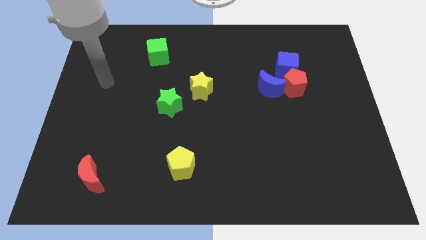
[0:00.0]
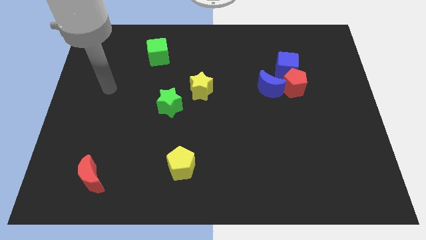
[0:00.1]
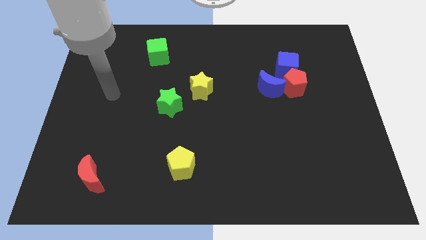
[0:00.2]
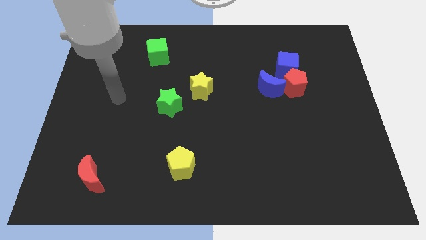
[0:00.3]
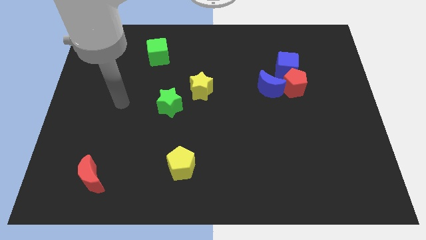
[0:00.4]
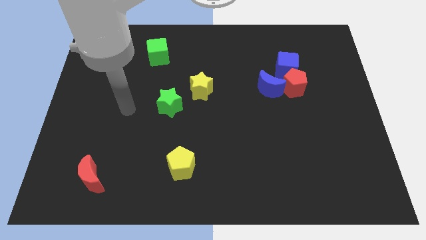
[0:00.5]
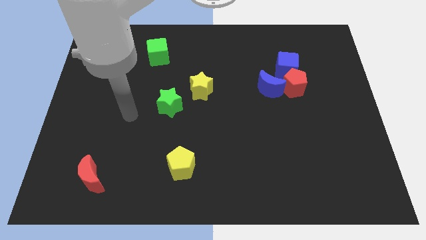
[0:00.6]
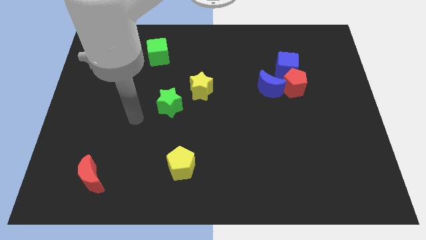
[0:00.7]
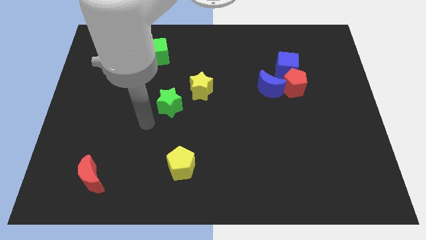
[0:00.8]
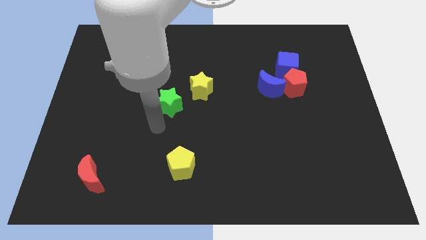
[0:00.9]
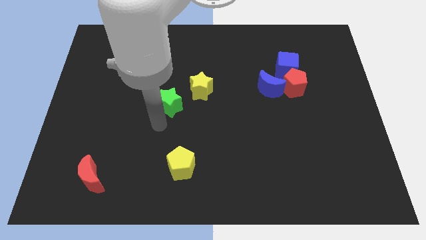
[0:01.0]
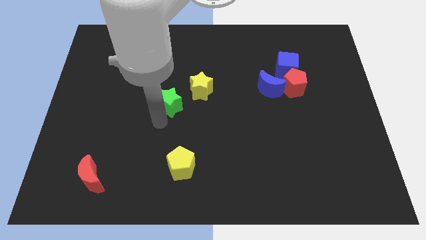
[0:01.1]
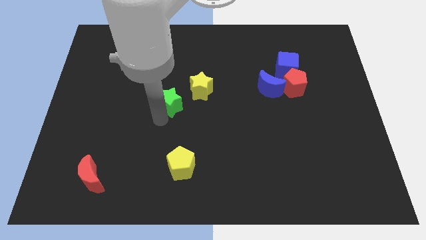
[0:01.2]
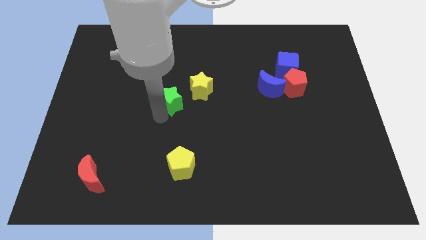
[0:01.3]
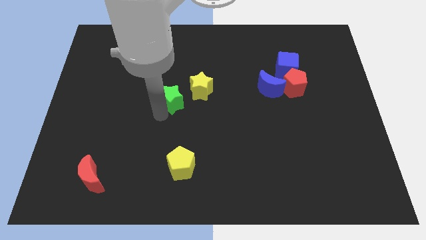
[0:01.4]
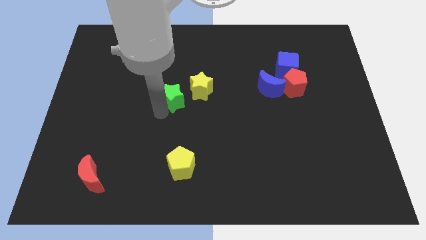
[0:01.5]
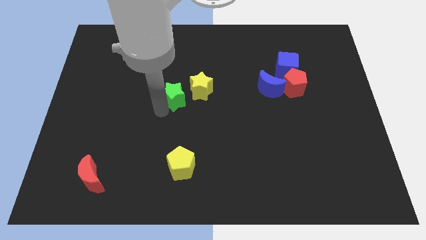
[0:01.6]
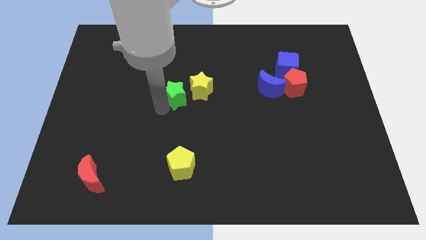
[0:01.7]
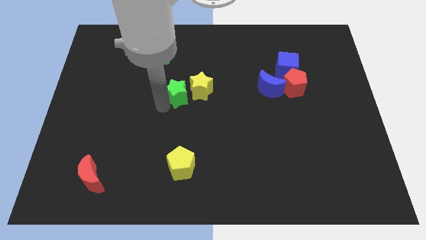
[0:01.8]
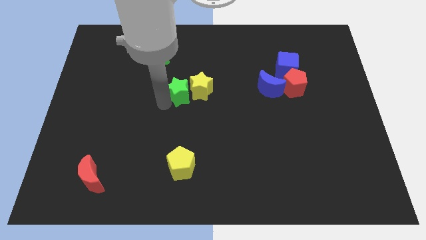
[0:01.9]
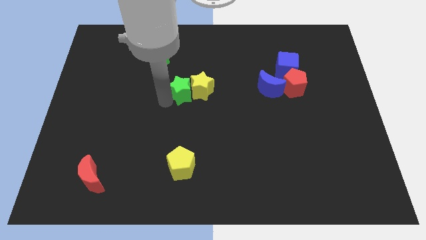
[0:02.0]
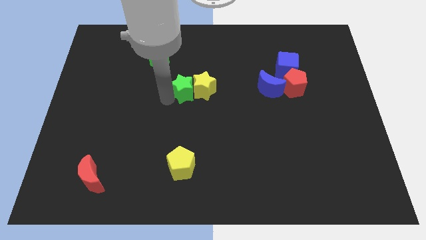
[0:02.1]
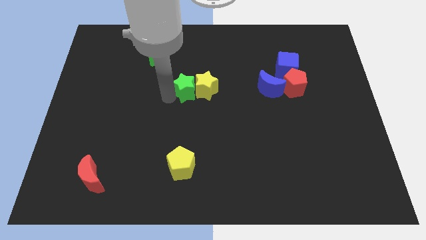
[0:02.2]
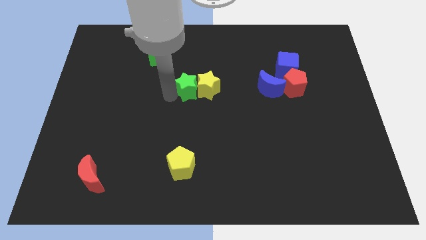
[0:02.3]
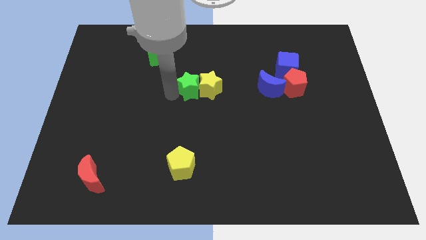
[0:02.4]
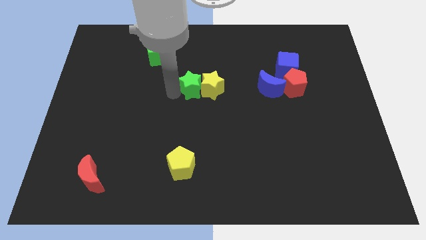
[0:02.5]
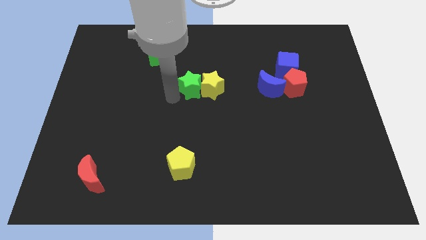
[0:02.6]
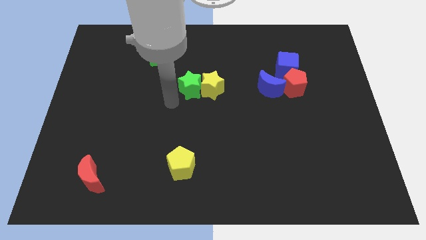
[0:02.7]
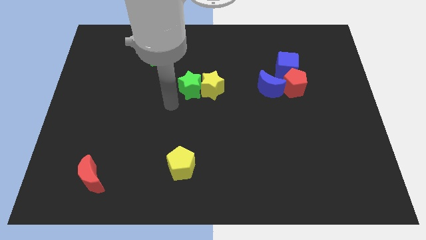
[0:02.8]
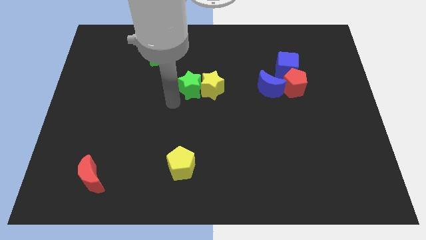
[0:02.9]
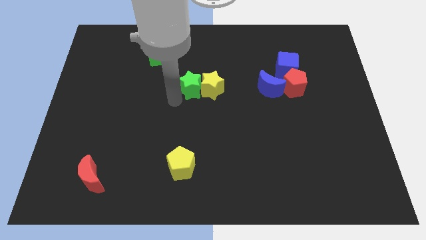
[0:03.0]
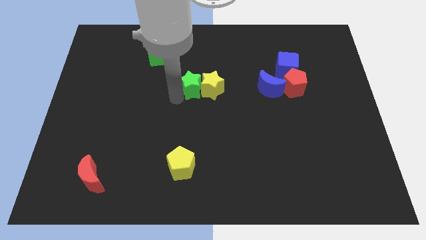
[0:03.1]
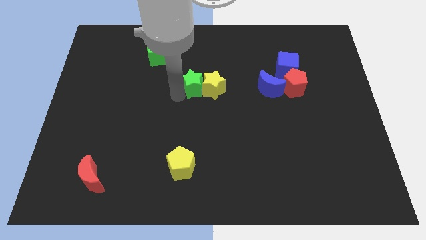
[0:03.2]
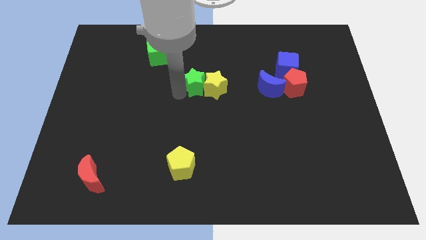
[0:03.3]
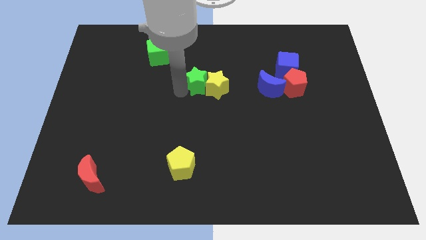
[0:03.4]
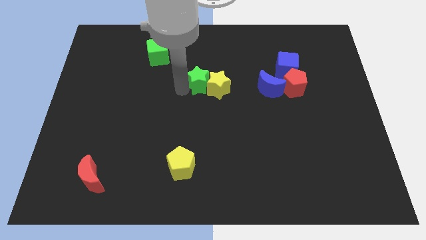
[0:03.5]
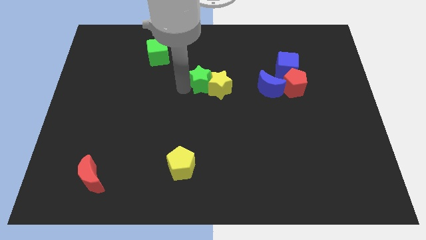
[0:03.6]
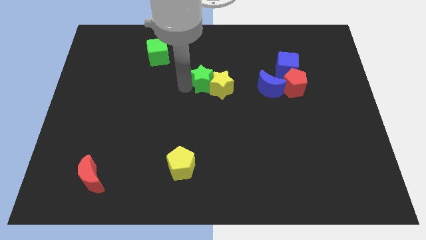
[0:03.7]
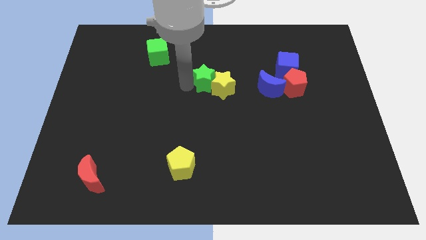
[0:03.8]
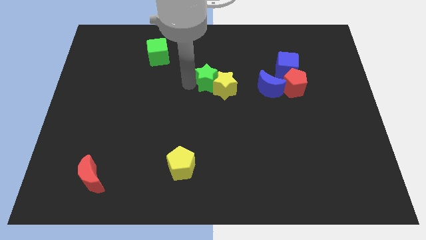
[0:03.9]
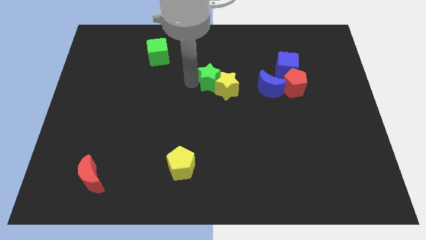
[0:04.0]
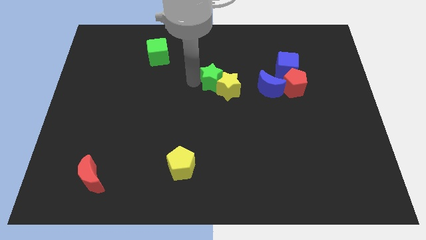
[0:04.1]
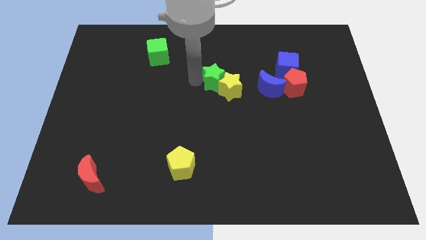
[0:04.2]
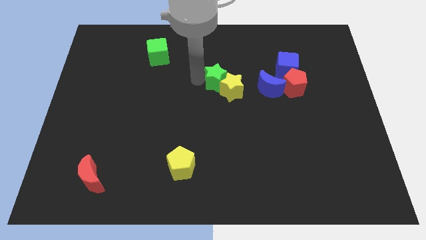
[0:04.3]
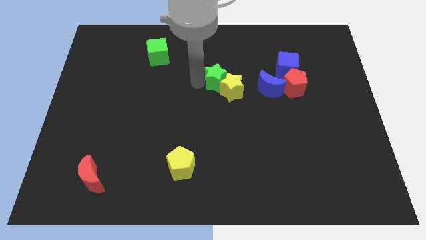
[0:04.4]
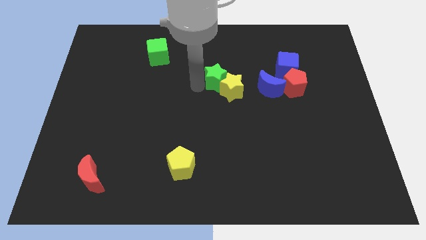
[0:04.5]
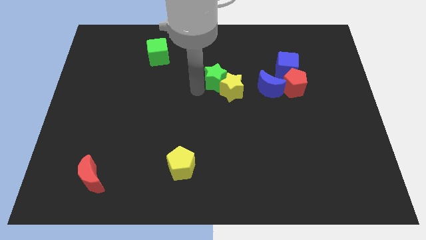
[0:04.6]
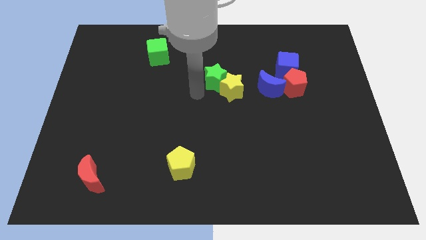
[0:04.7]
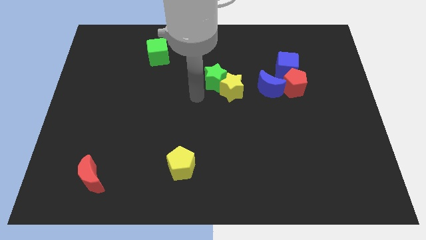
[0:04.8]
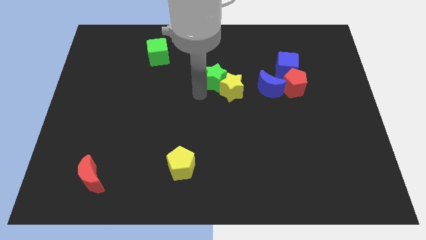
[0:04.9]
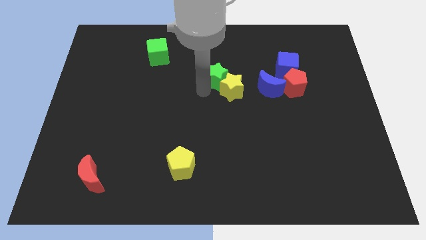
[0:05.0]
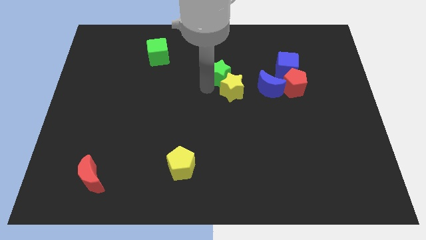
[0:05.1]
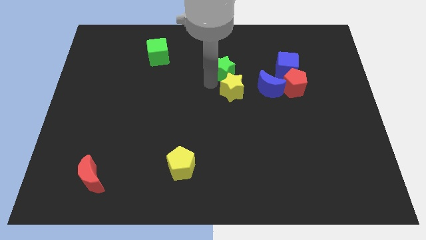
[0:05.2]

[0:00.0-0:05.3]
put the green star just left of the blue cube

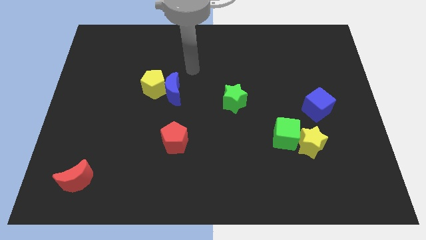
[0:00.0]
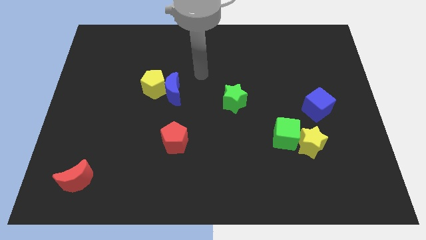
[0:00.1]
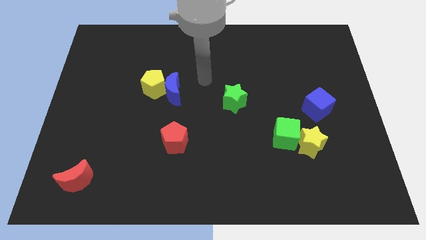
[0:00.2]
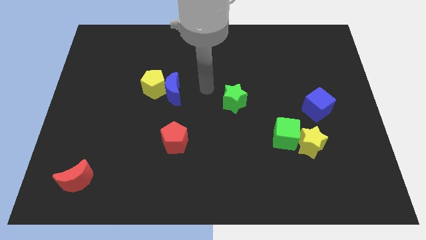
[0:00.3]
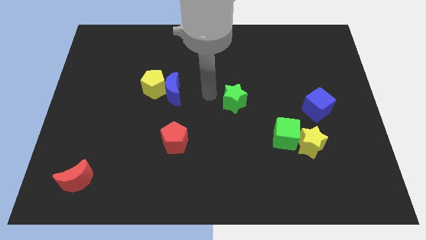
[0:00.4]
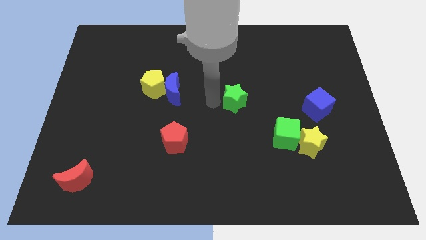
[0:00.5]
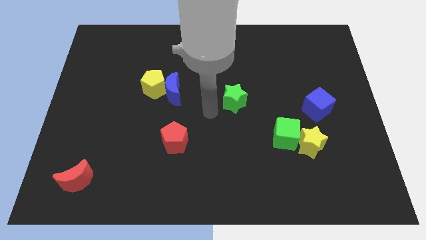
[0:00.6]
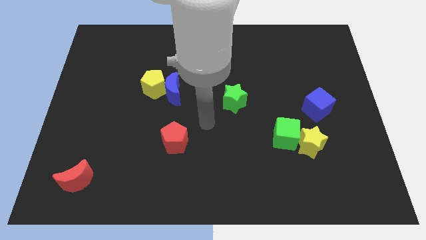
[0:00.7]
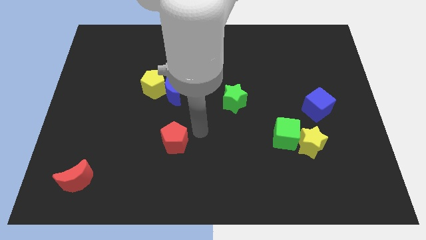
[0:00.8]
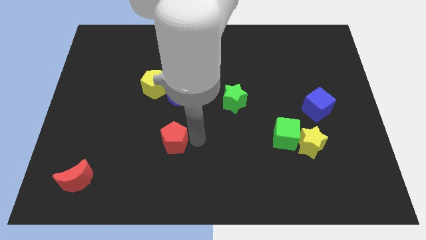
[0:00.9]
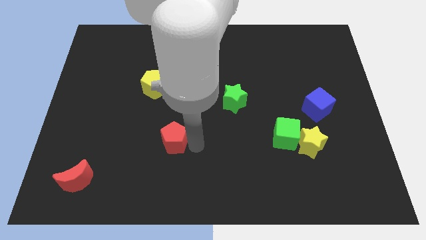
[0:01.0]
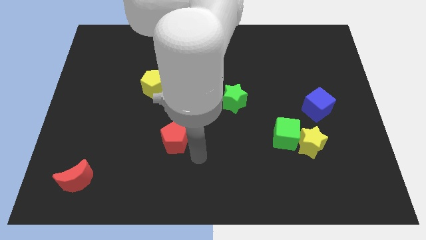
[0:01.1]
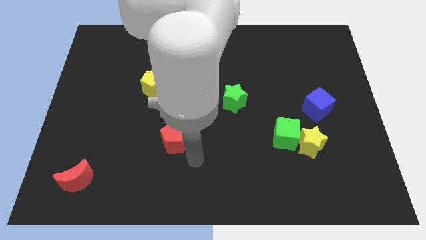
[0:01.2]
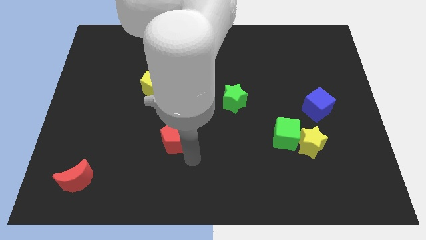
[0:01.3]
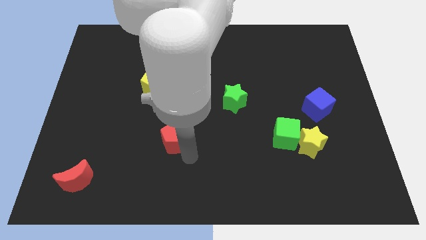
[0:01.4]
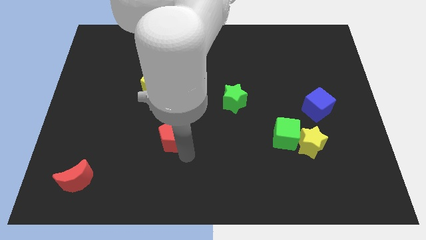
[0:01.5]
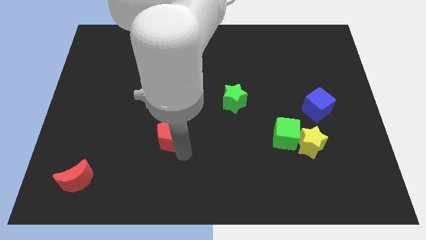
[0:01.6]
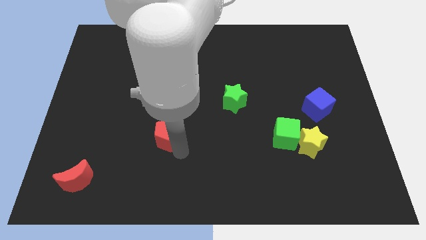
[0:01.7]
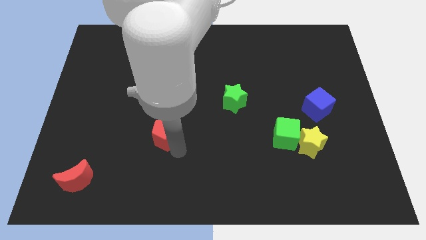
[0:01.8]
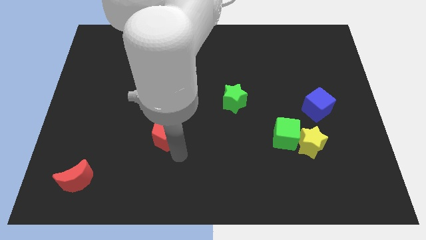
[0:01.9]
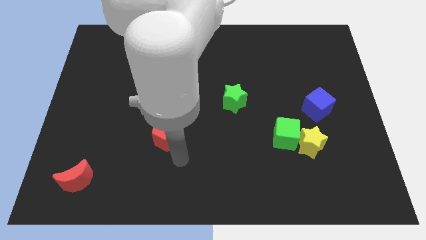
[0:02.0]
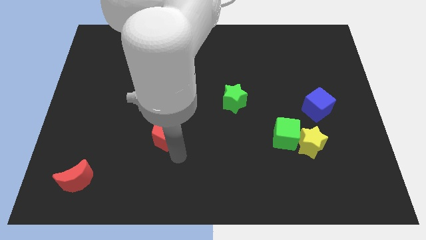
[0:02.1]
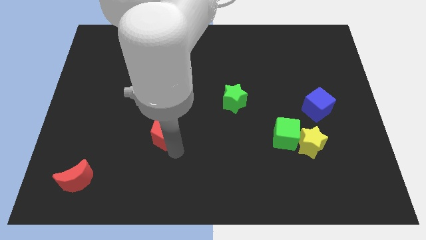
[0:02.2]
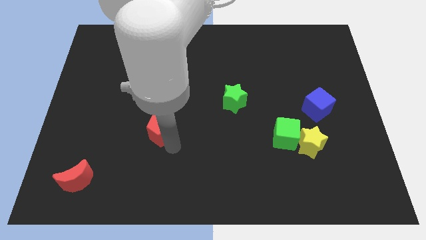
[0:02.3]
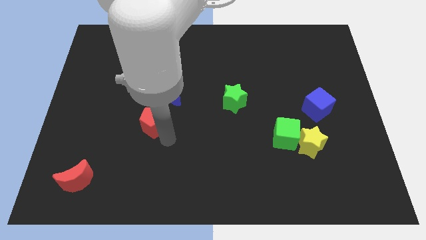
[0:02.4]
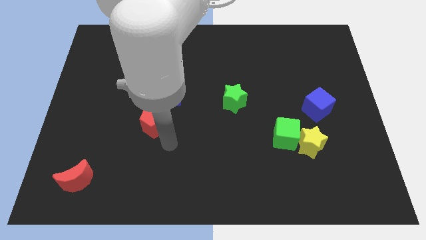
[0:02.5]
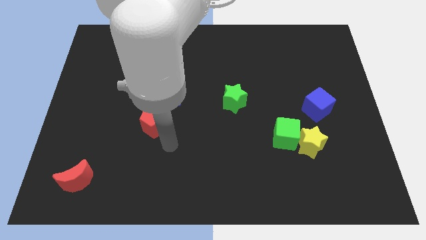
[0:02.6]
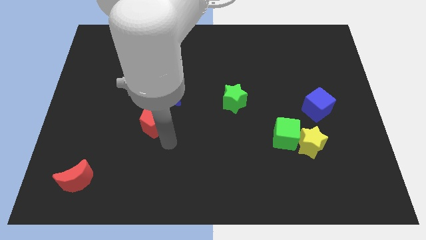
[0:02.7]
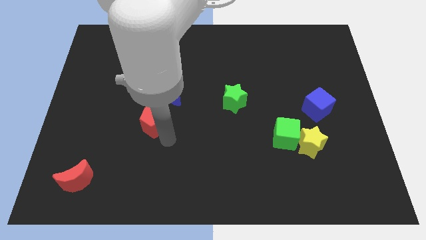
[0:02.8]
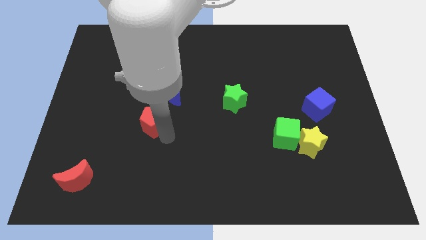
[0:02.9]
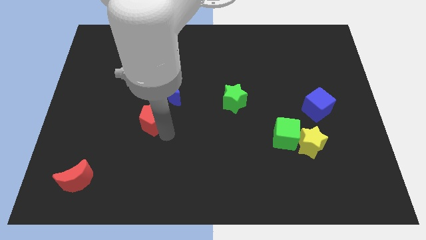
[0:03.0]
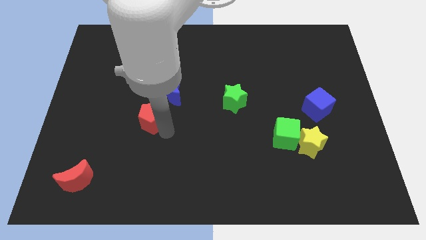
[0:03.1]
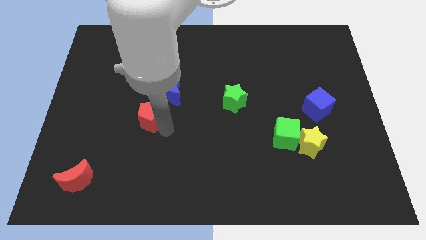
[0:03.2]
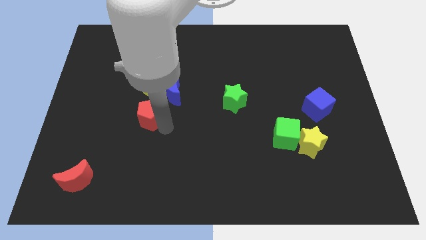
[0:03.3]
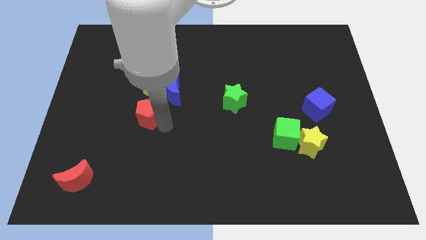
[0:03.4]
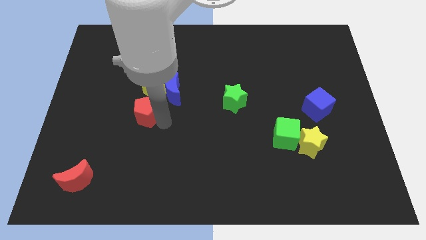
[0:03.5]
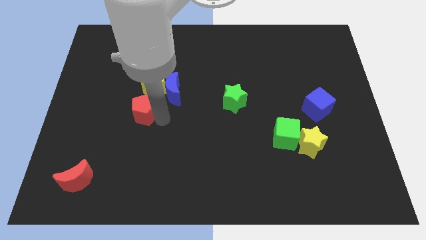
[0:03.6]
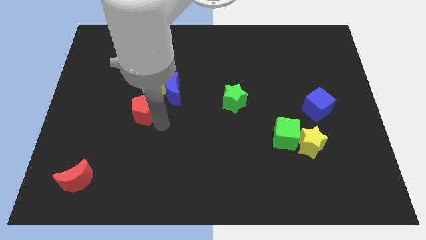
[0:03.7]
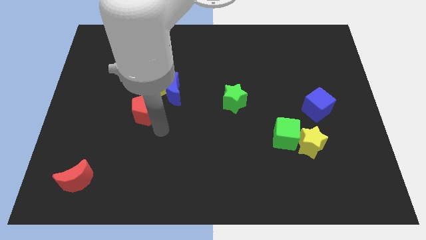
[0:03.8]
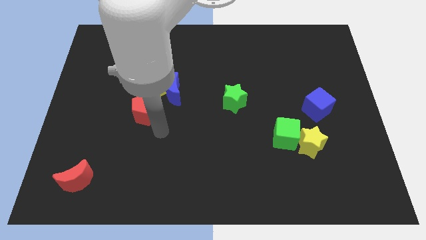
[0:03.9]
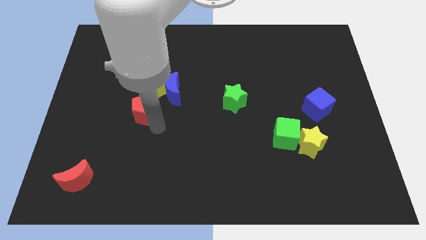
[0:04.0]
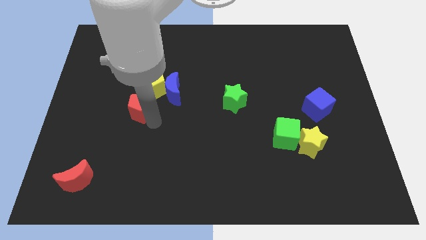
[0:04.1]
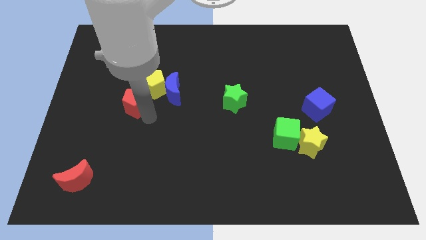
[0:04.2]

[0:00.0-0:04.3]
slide the red pentagon to the left of the blue moon
